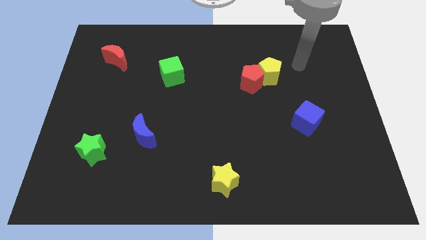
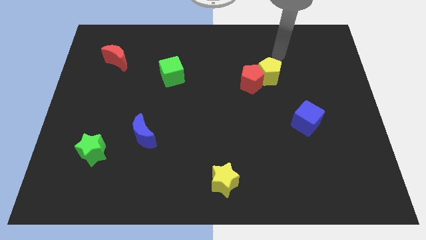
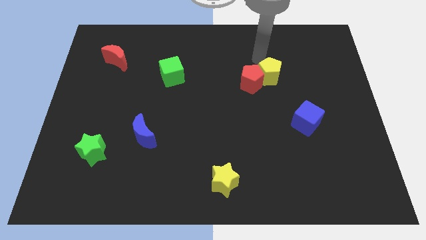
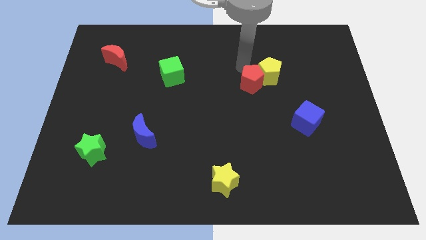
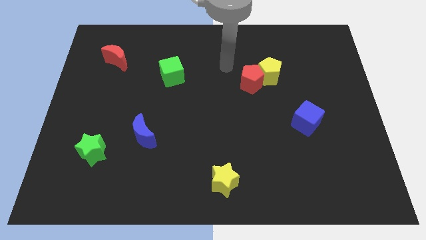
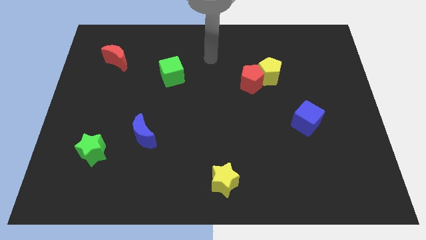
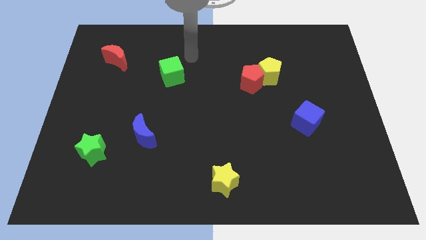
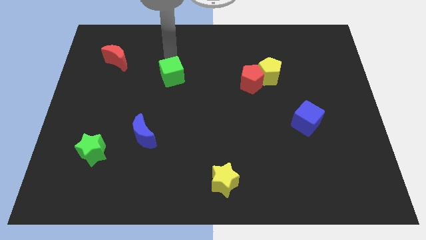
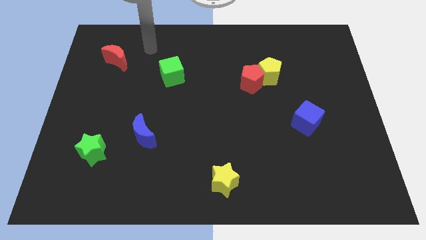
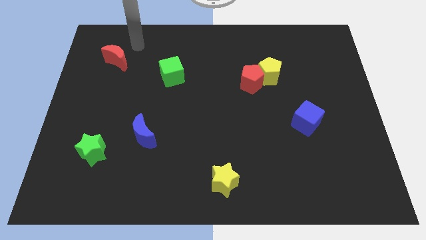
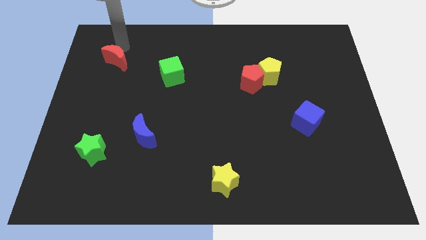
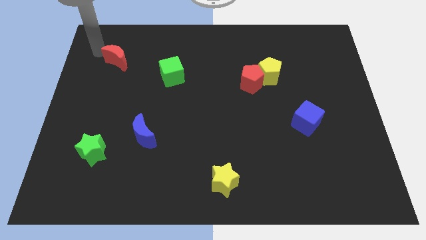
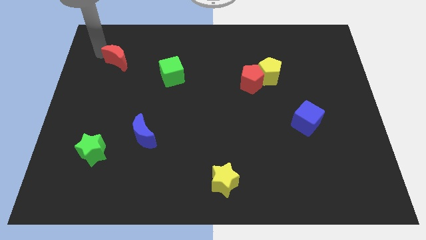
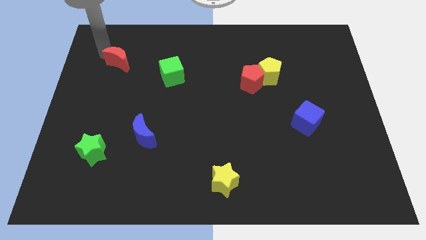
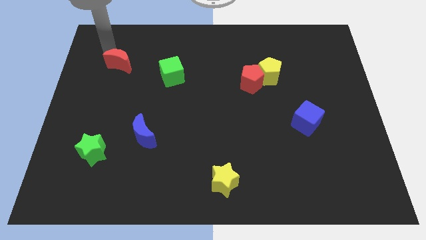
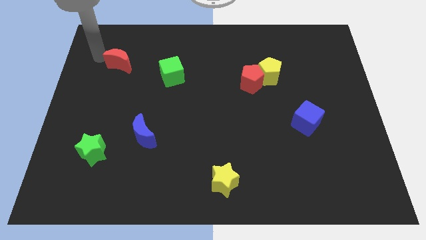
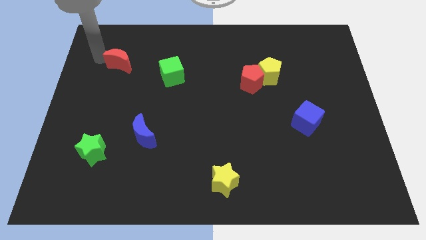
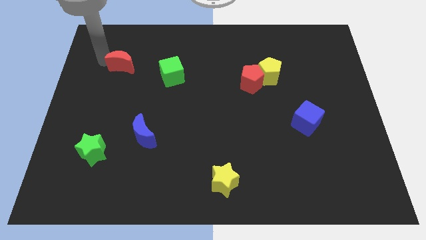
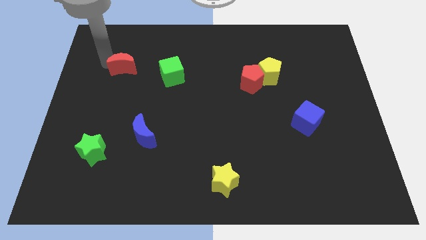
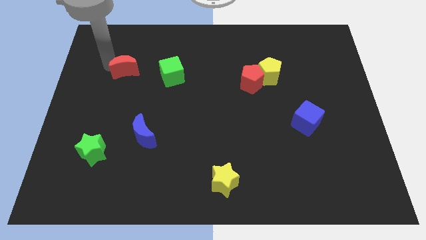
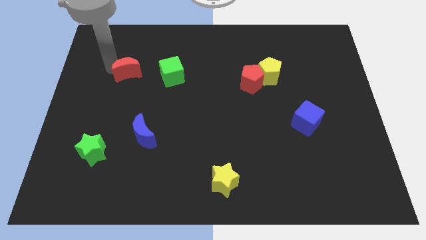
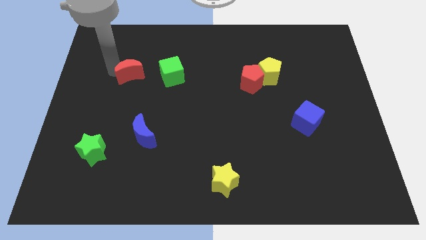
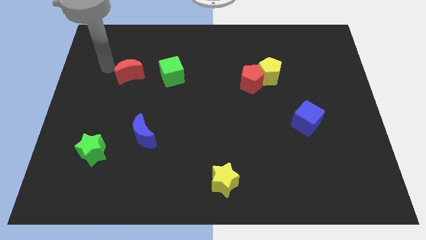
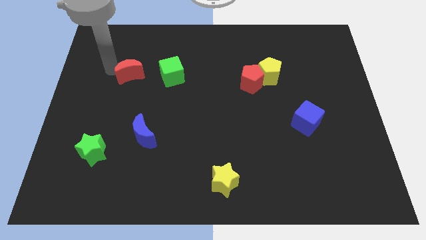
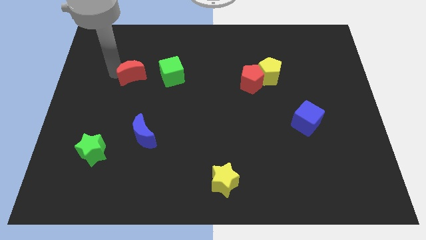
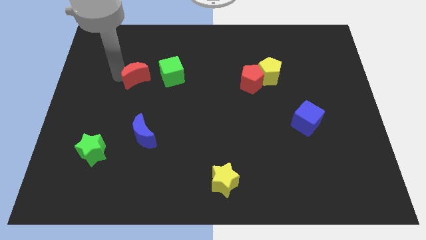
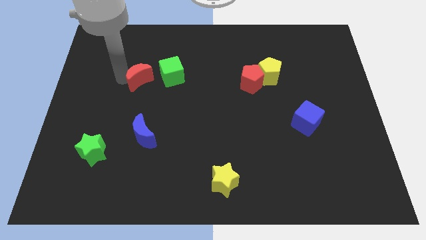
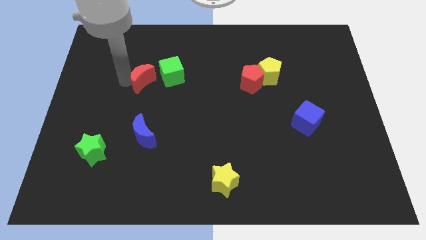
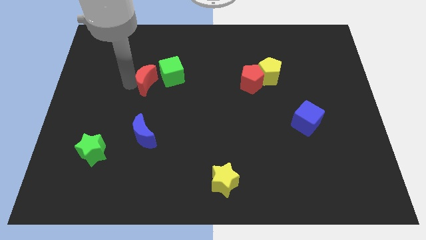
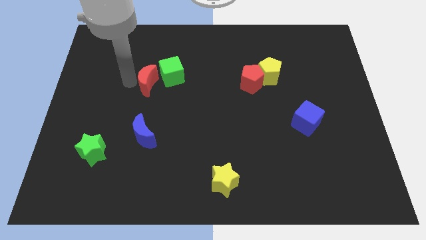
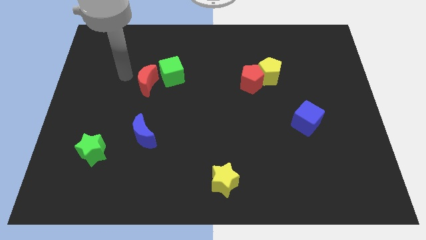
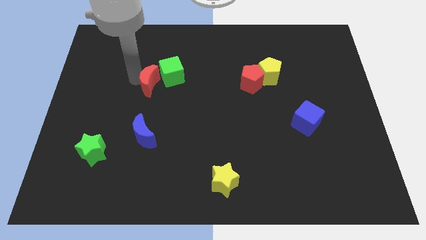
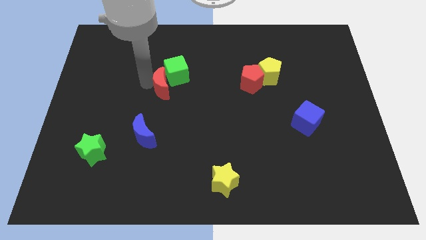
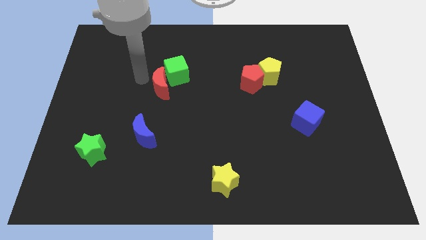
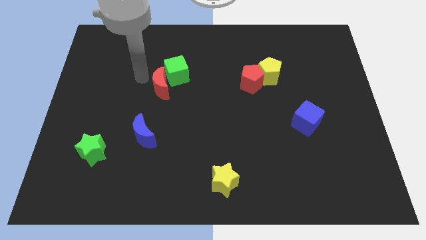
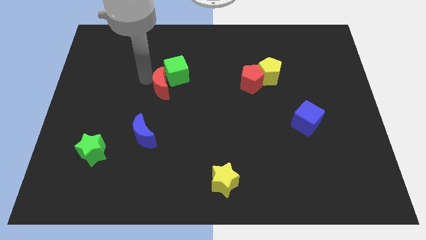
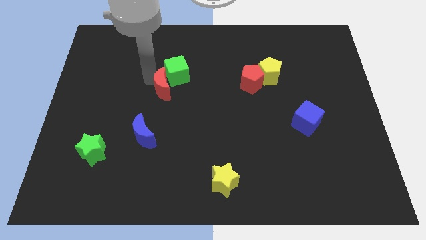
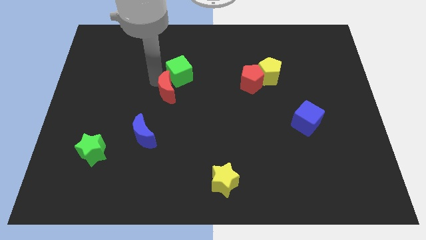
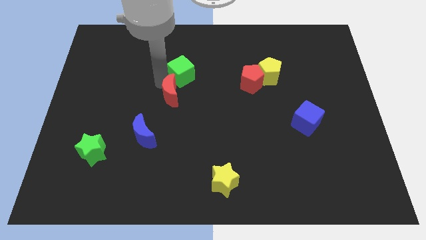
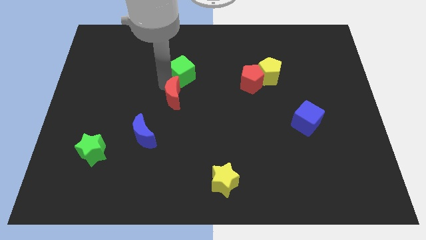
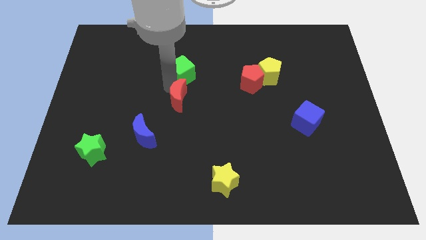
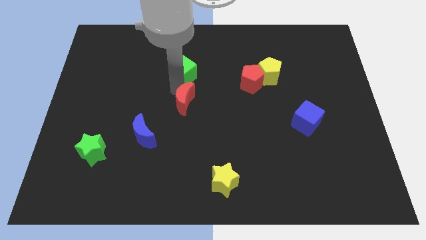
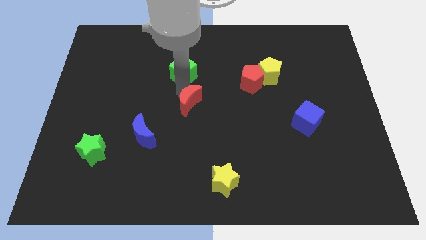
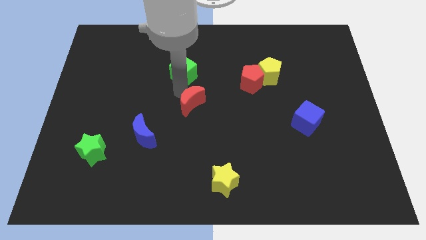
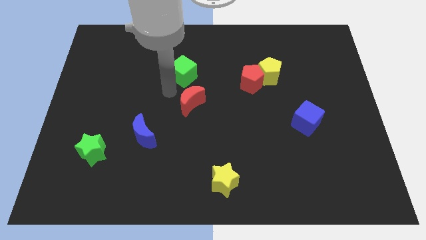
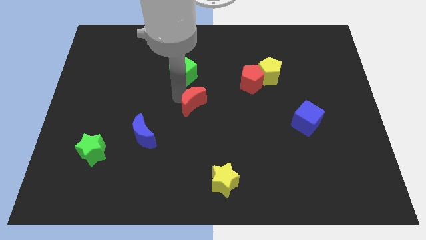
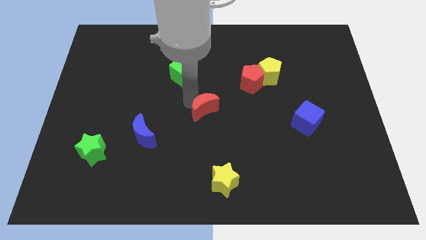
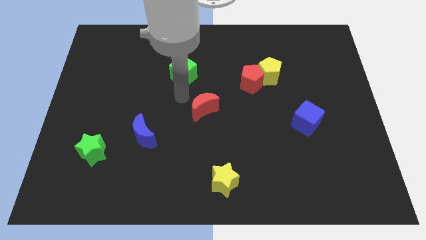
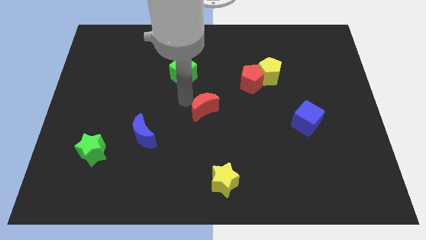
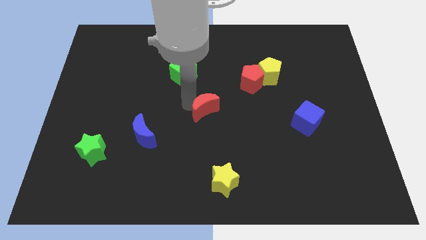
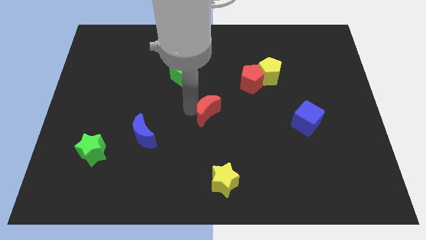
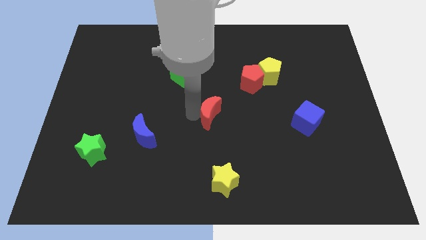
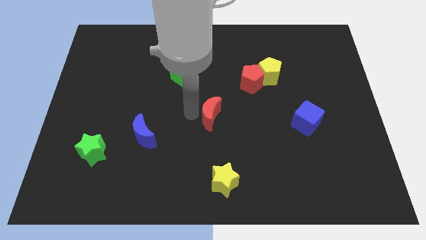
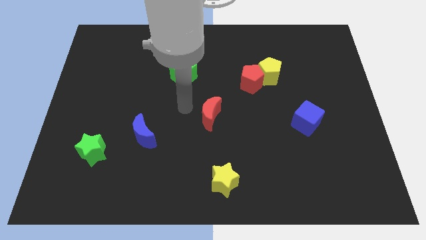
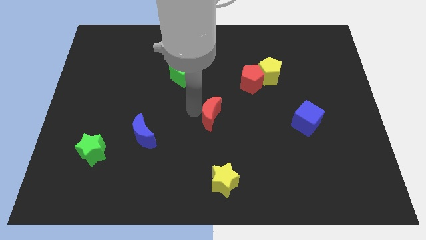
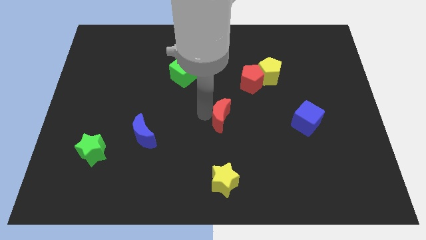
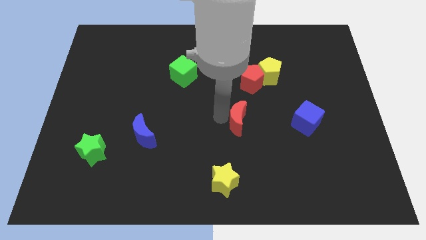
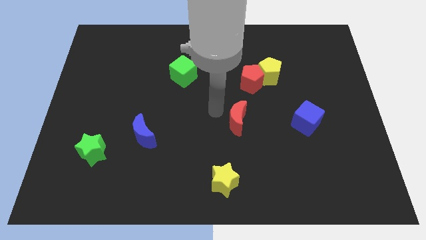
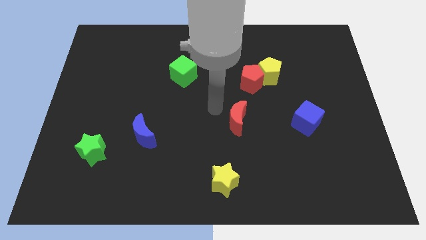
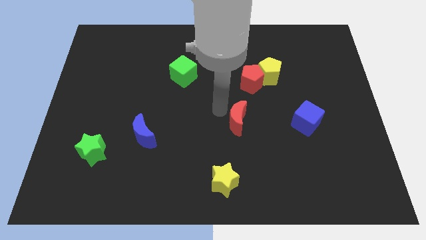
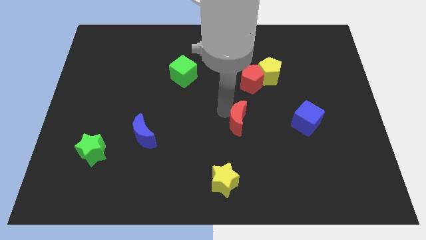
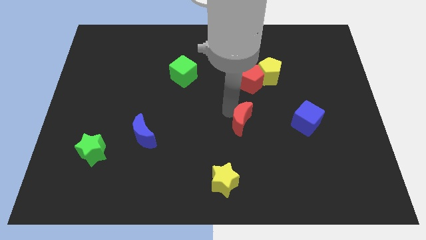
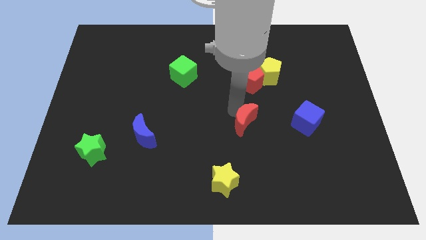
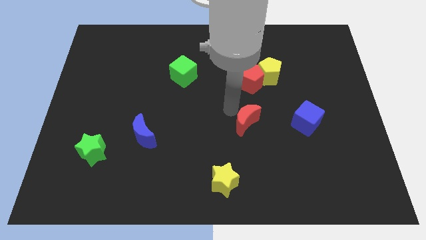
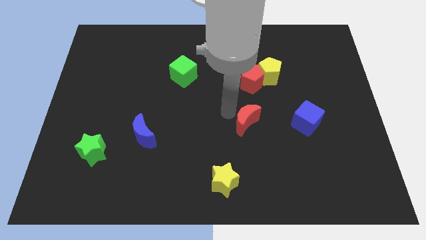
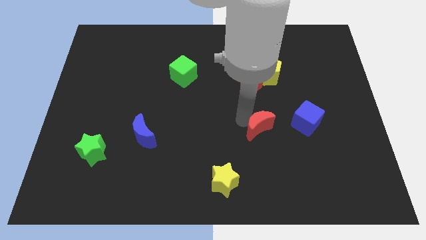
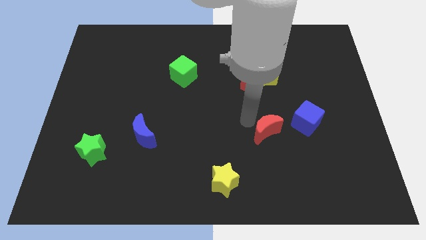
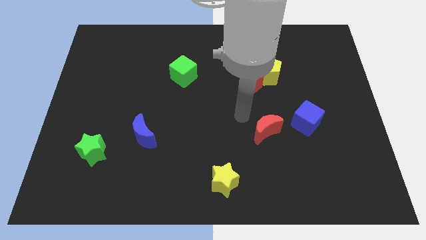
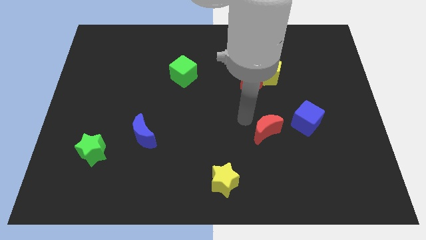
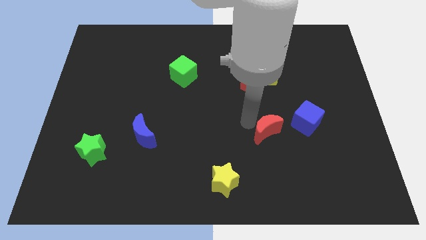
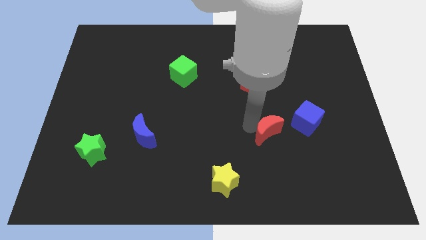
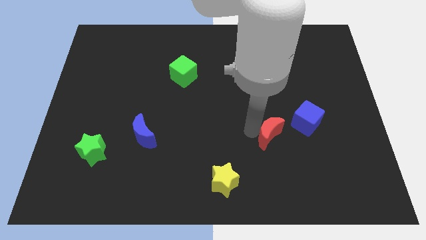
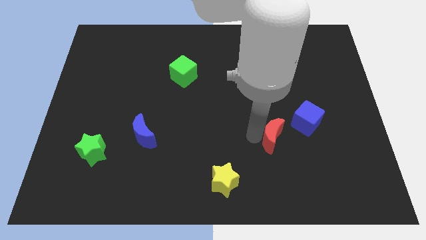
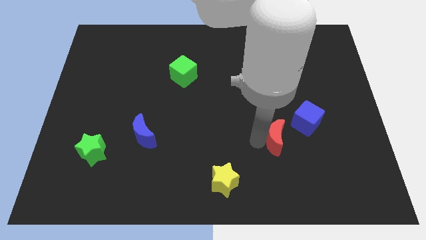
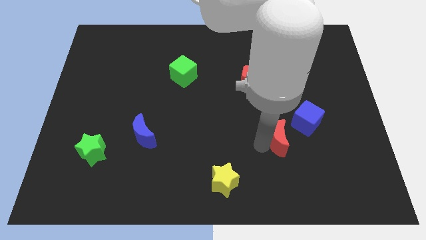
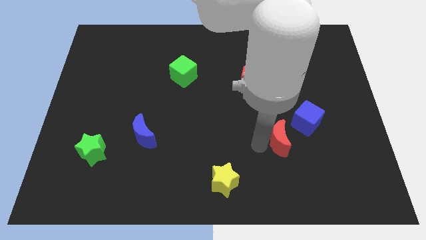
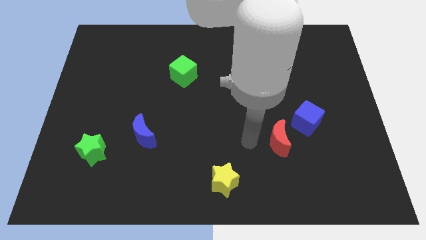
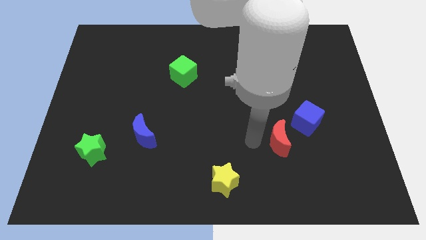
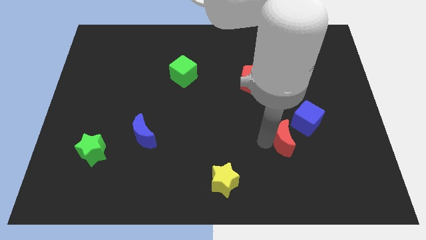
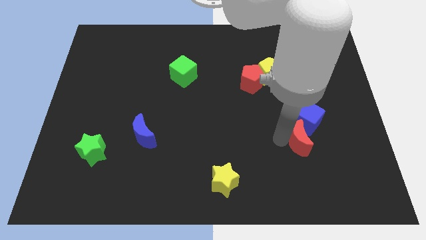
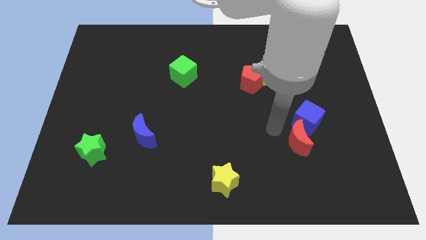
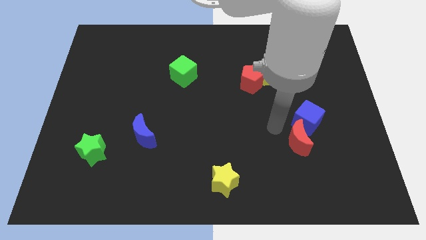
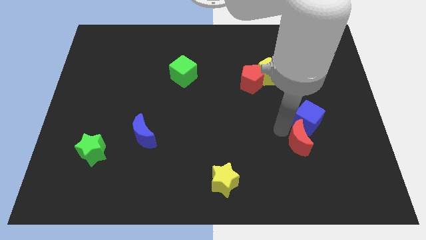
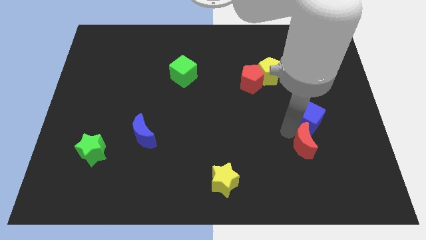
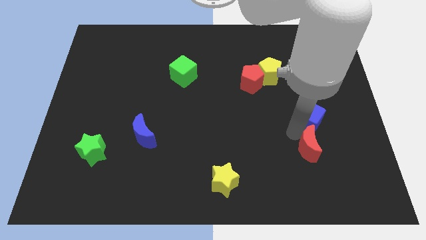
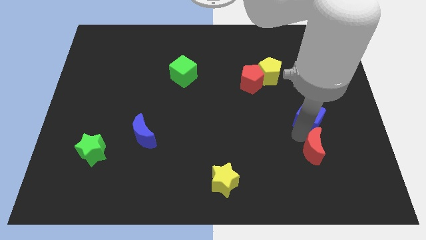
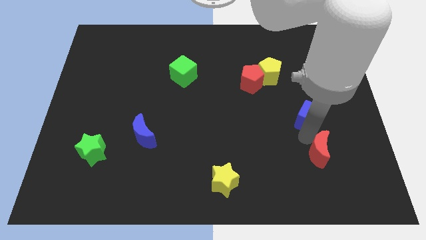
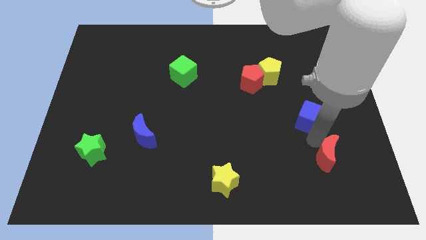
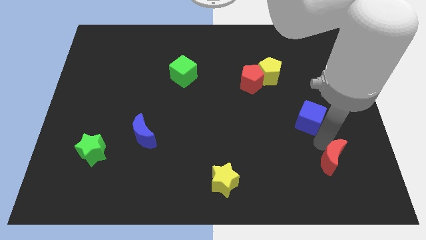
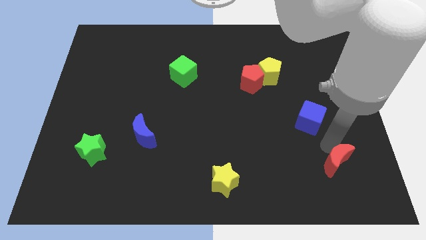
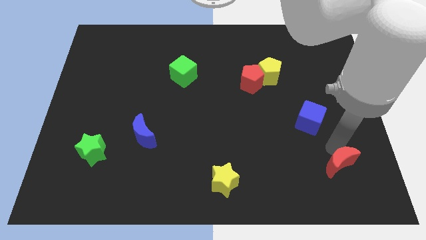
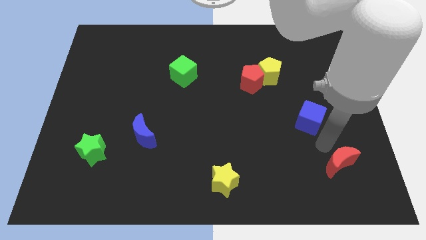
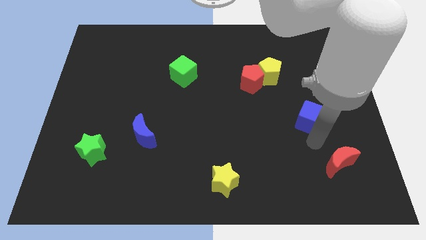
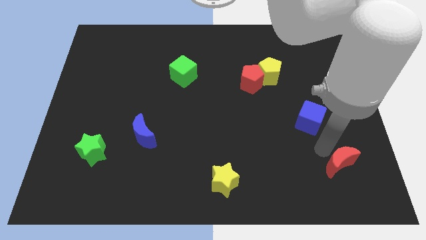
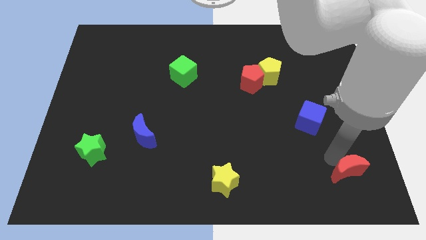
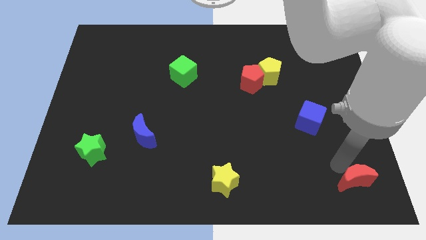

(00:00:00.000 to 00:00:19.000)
push the red moon to the bottom right
